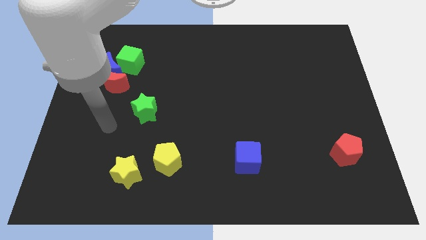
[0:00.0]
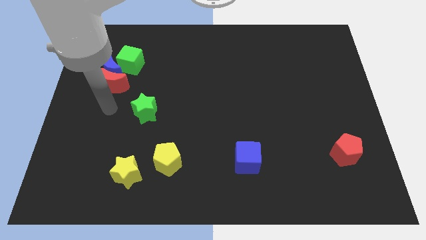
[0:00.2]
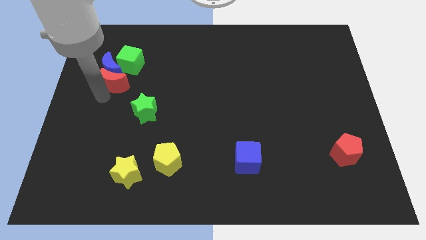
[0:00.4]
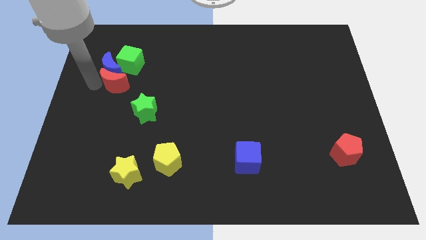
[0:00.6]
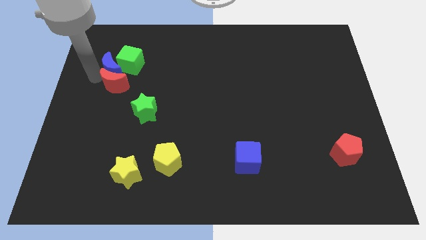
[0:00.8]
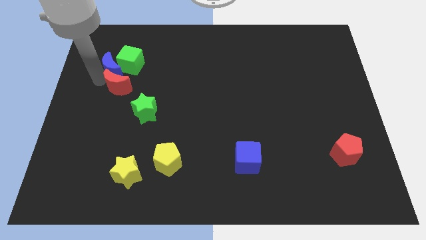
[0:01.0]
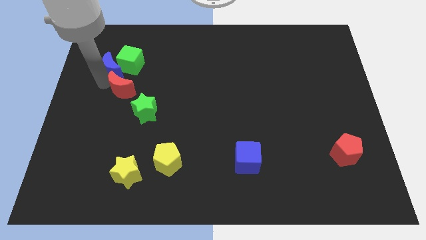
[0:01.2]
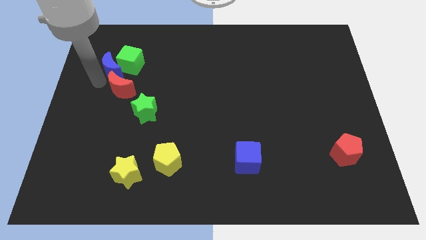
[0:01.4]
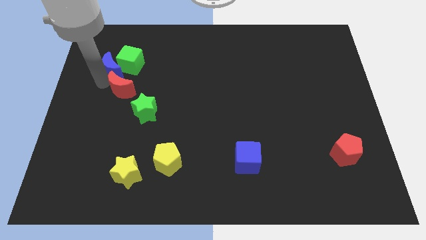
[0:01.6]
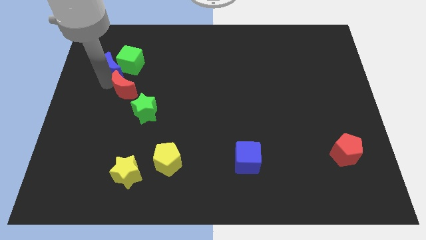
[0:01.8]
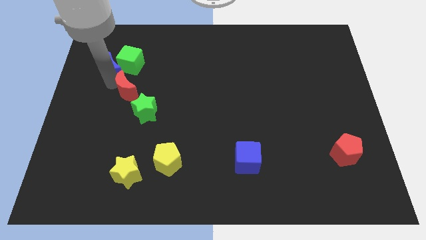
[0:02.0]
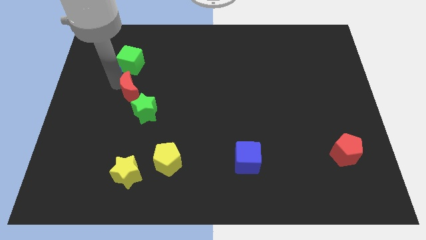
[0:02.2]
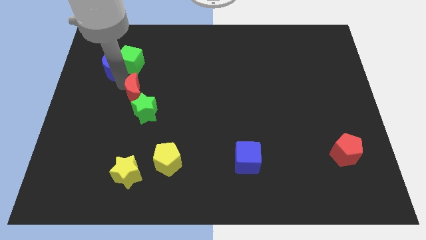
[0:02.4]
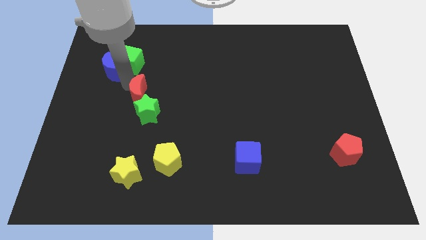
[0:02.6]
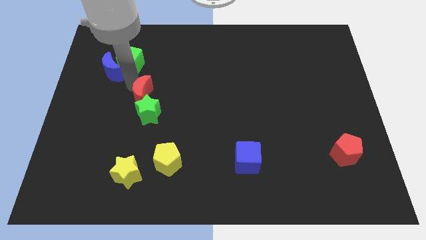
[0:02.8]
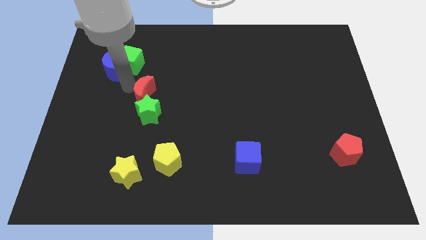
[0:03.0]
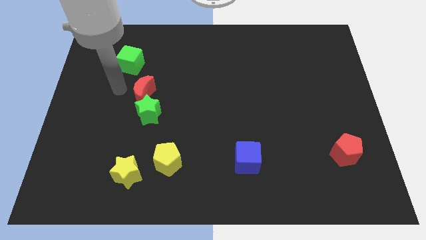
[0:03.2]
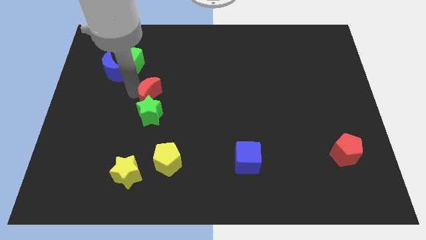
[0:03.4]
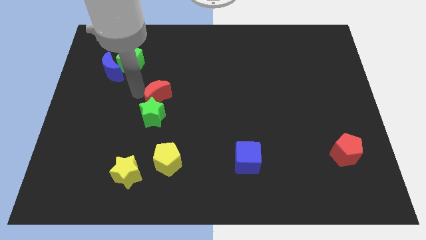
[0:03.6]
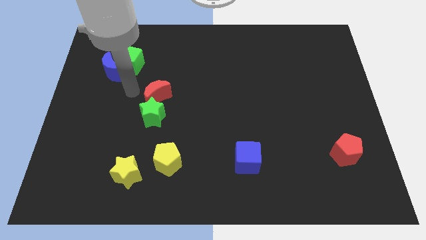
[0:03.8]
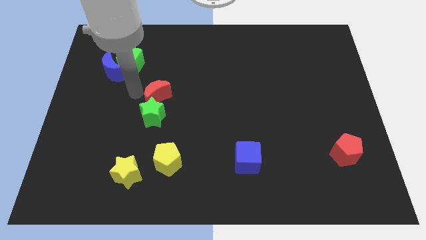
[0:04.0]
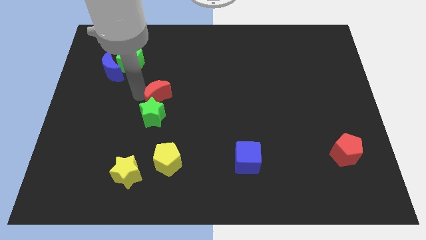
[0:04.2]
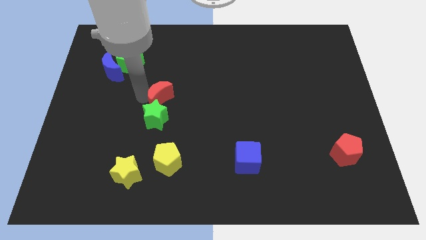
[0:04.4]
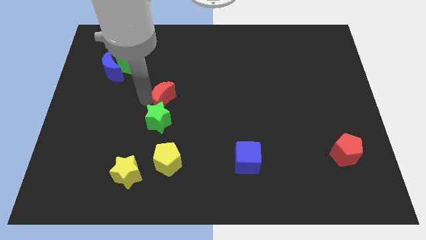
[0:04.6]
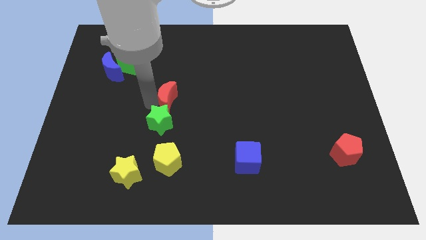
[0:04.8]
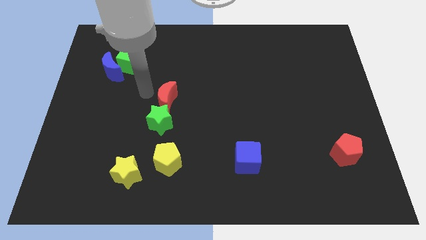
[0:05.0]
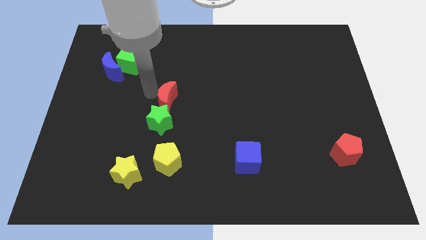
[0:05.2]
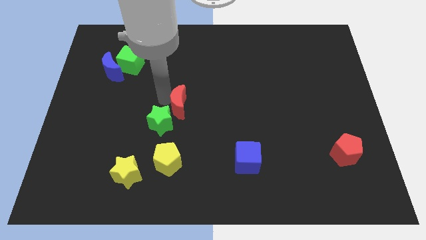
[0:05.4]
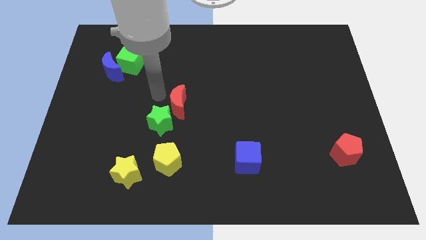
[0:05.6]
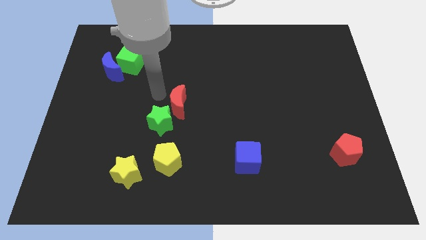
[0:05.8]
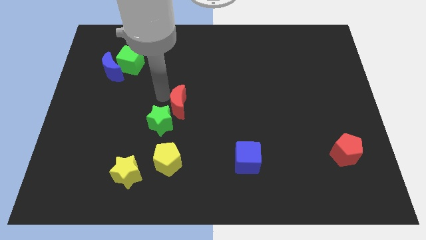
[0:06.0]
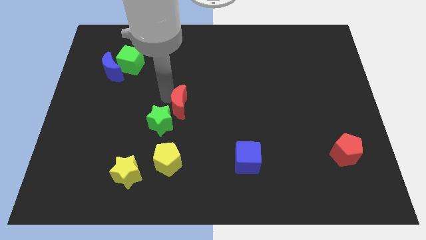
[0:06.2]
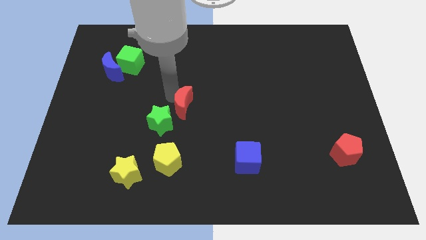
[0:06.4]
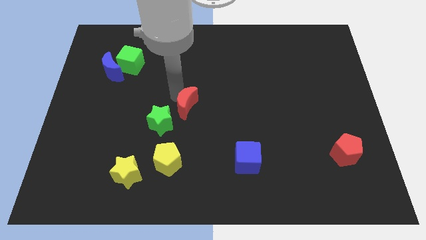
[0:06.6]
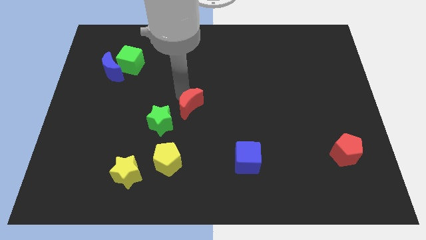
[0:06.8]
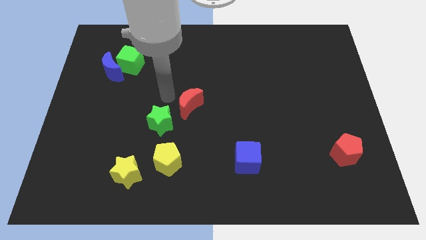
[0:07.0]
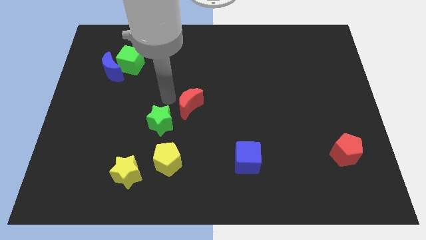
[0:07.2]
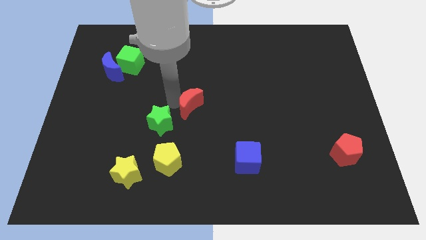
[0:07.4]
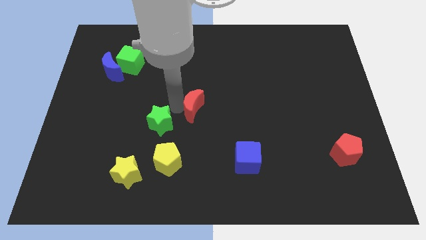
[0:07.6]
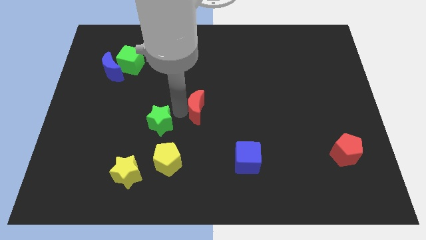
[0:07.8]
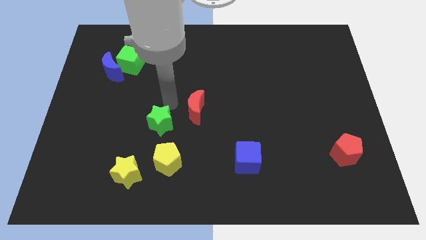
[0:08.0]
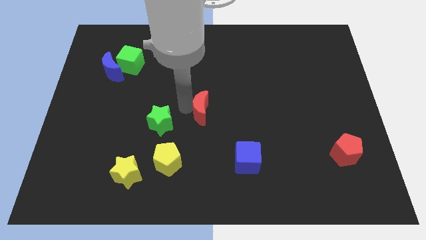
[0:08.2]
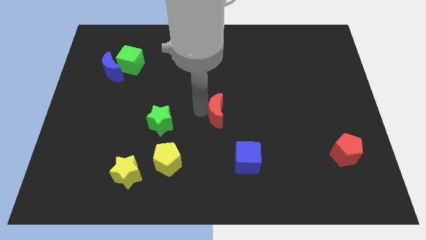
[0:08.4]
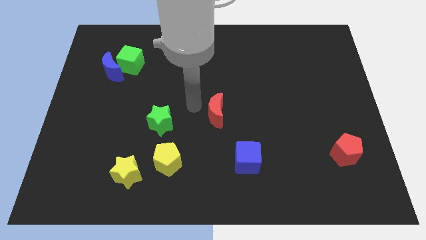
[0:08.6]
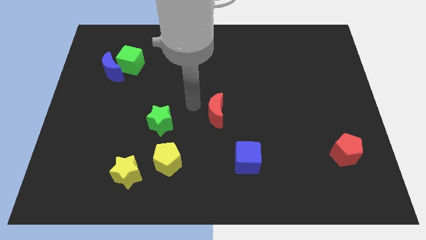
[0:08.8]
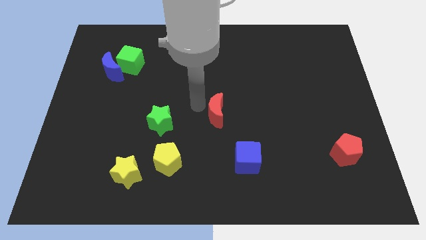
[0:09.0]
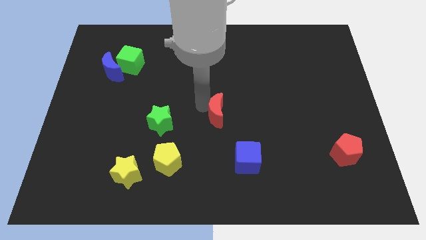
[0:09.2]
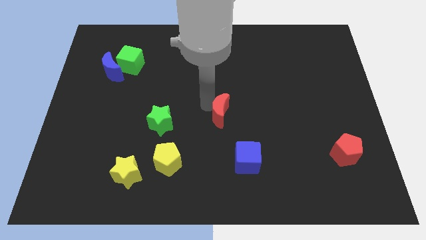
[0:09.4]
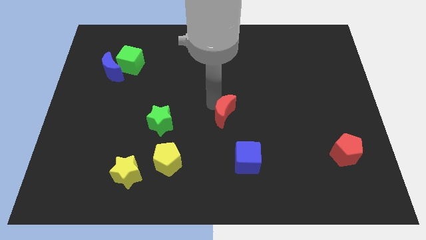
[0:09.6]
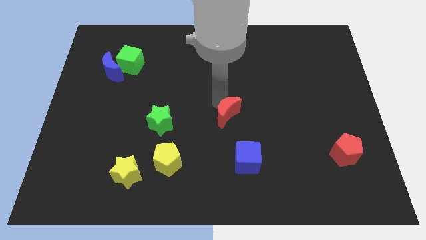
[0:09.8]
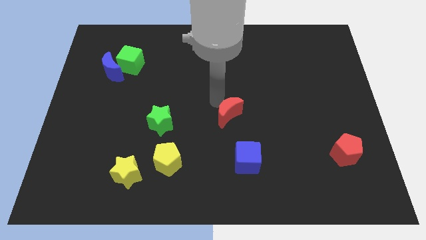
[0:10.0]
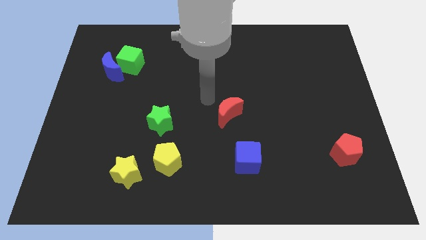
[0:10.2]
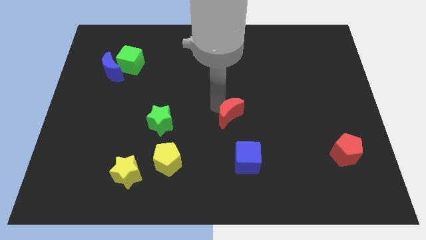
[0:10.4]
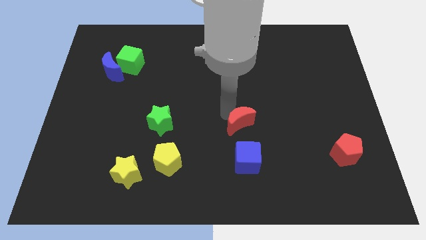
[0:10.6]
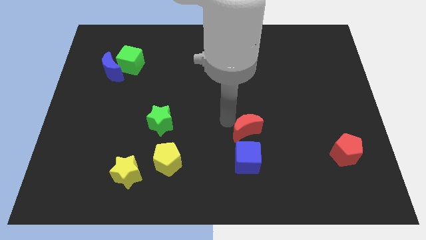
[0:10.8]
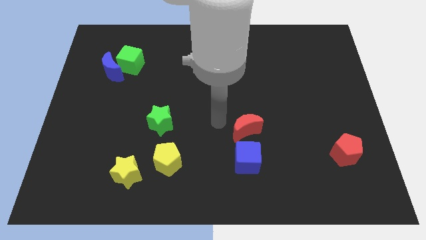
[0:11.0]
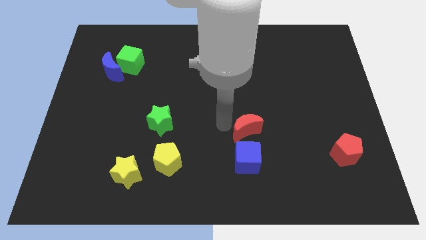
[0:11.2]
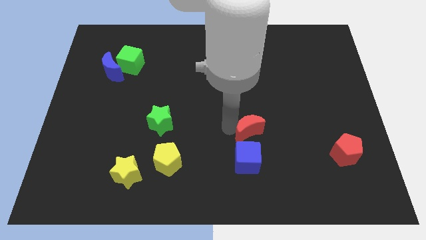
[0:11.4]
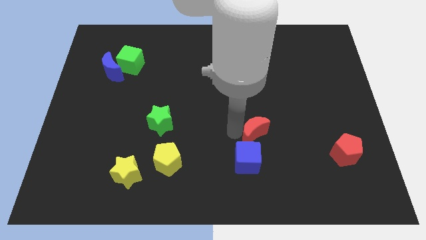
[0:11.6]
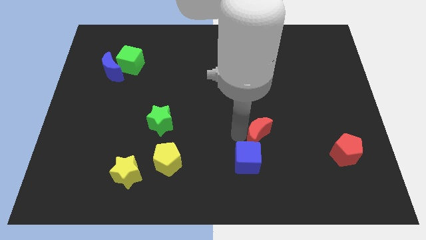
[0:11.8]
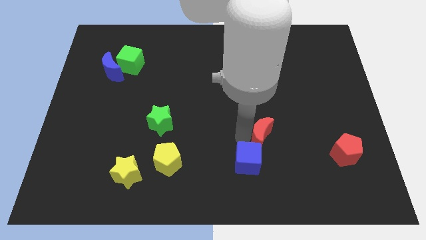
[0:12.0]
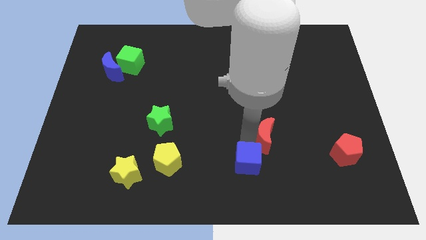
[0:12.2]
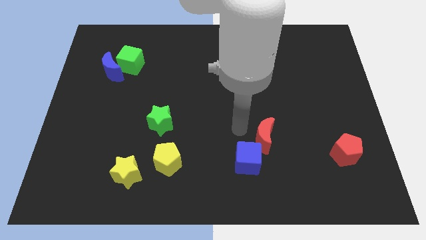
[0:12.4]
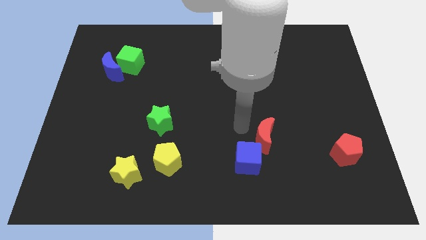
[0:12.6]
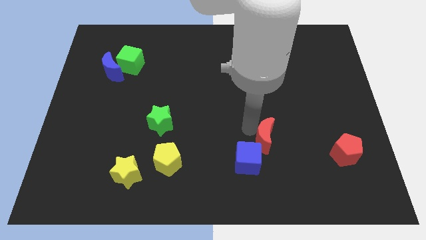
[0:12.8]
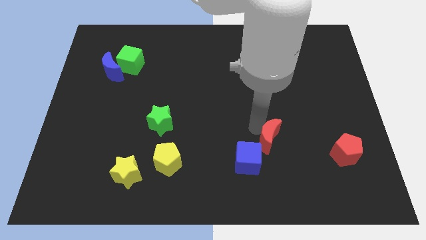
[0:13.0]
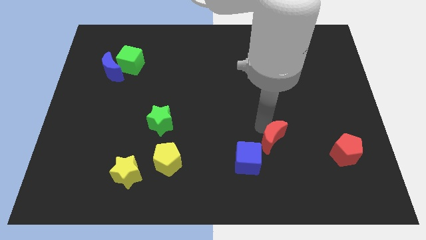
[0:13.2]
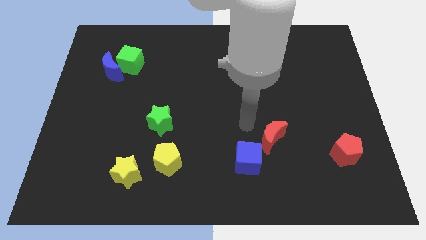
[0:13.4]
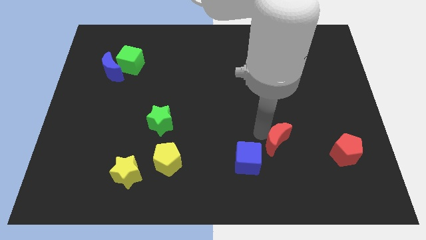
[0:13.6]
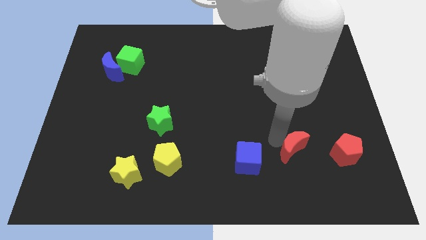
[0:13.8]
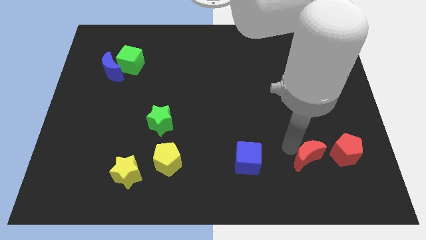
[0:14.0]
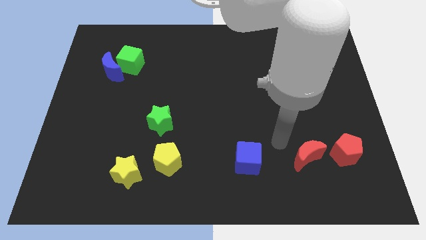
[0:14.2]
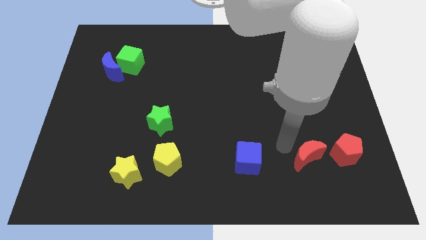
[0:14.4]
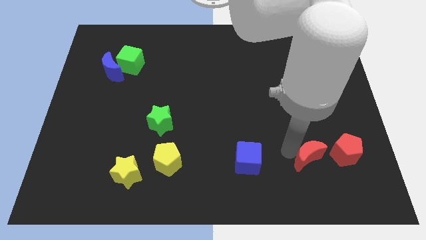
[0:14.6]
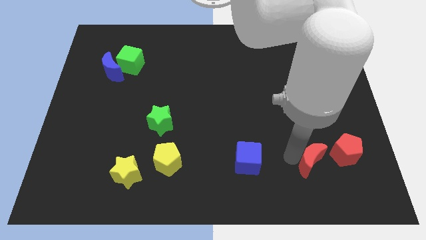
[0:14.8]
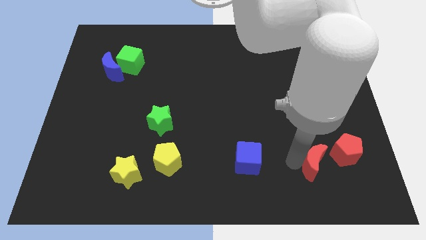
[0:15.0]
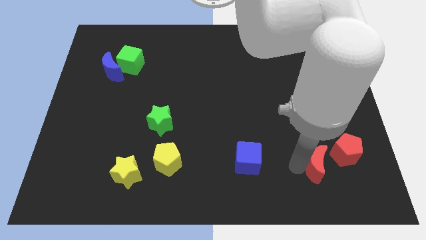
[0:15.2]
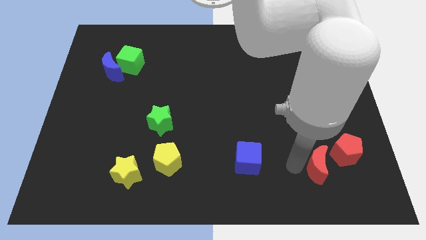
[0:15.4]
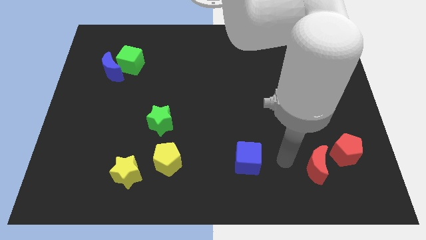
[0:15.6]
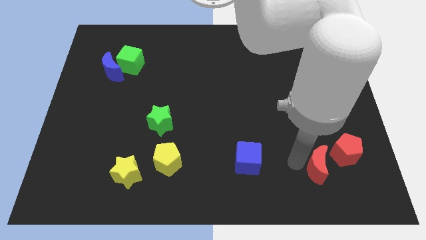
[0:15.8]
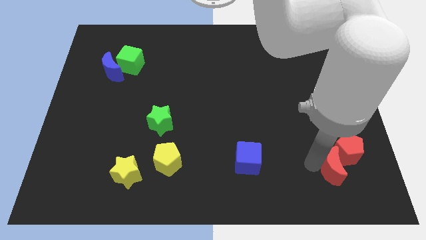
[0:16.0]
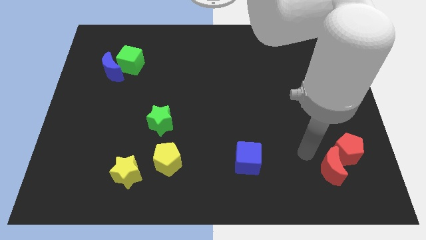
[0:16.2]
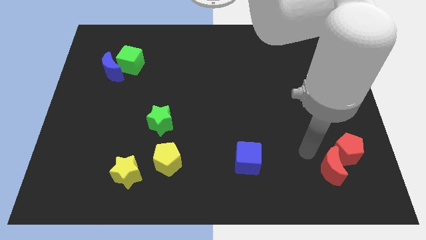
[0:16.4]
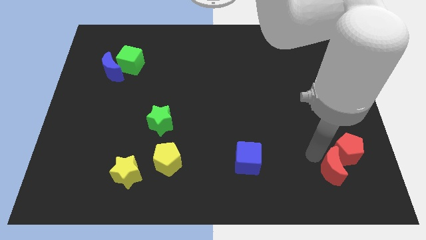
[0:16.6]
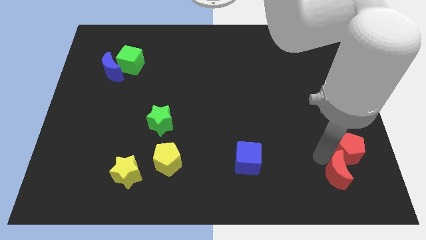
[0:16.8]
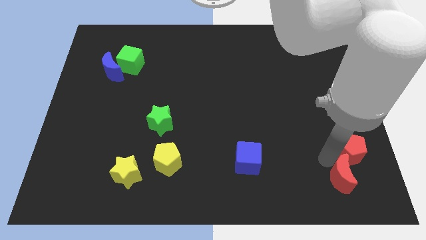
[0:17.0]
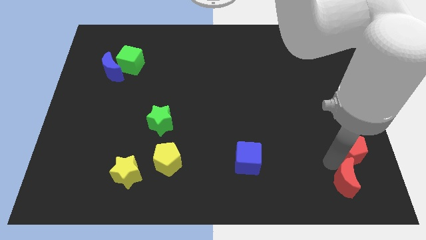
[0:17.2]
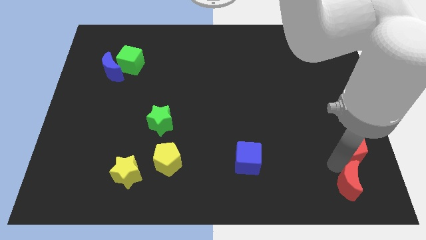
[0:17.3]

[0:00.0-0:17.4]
push the red moon to the bottom right of the board
